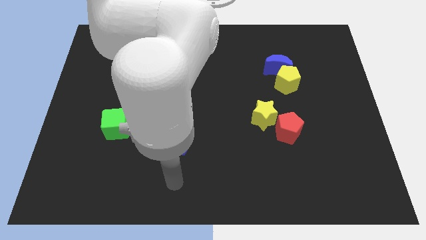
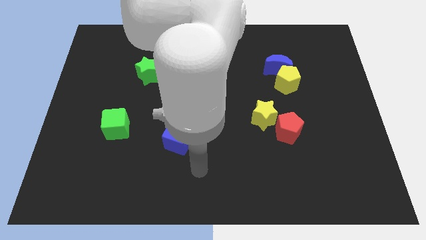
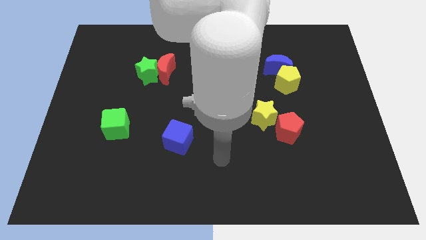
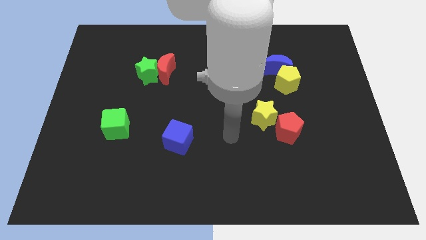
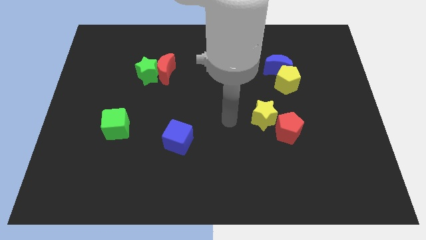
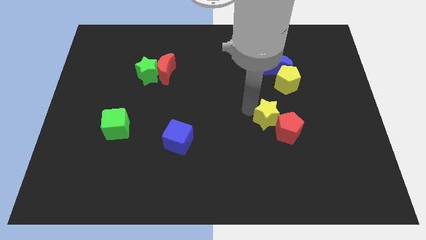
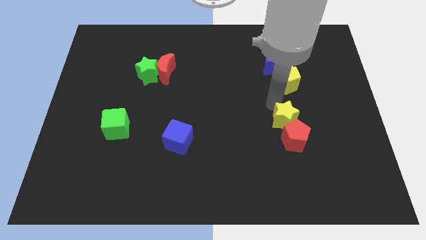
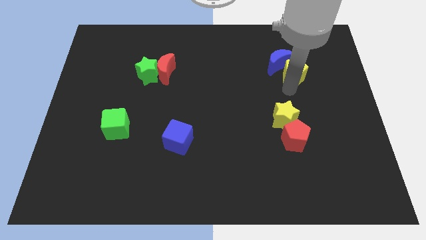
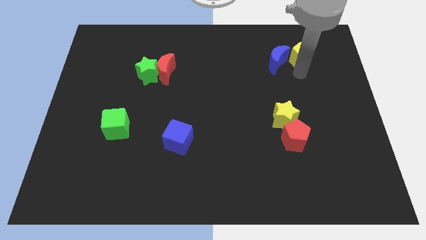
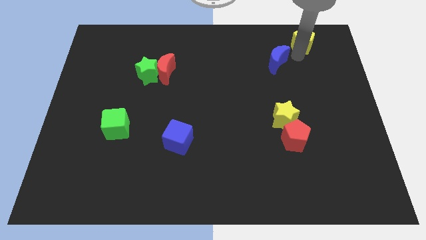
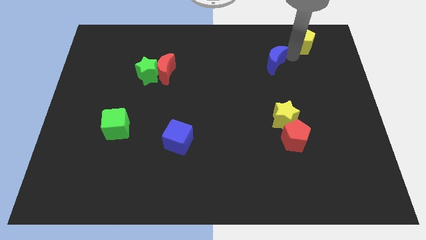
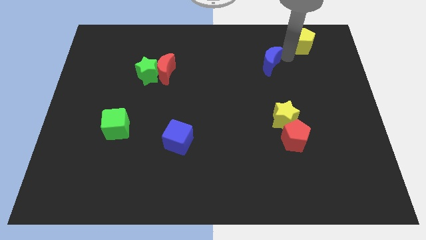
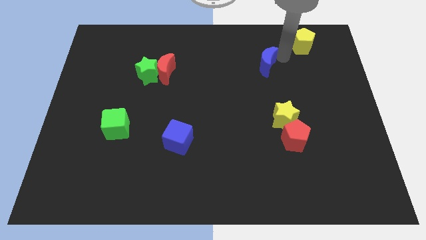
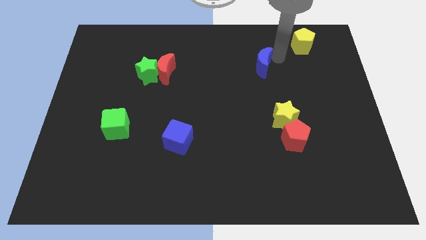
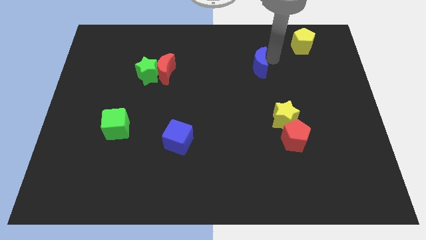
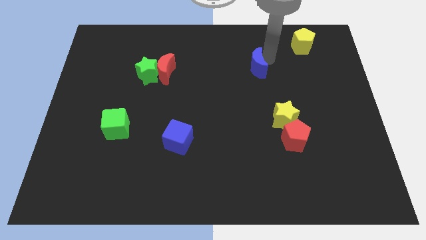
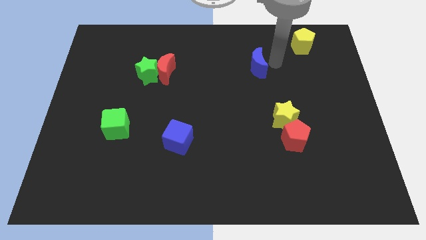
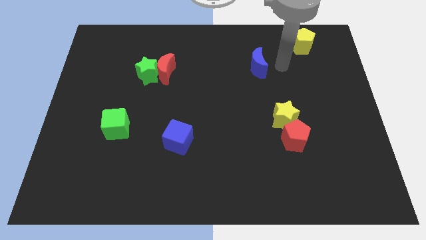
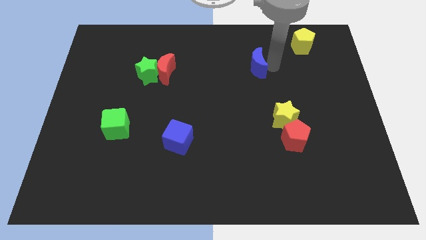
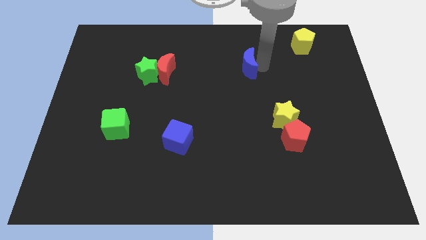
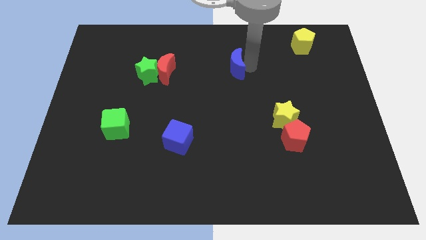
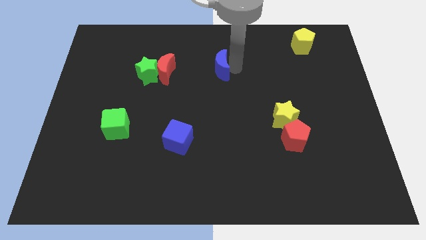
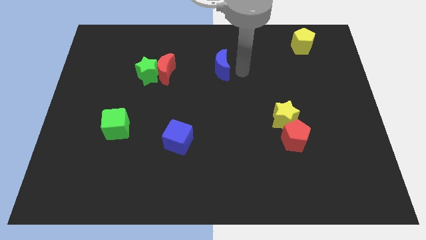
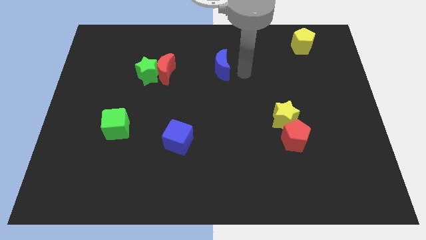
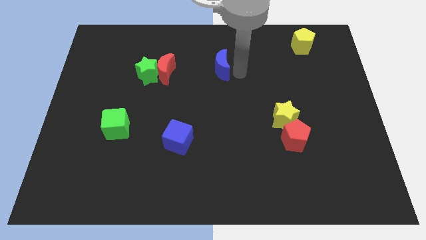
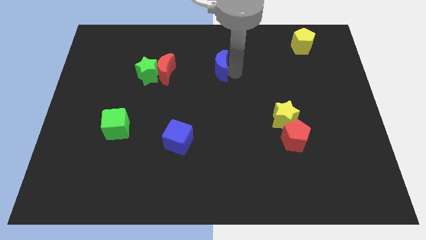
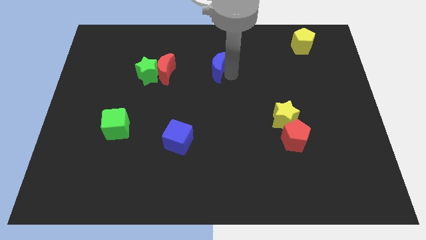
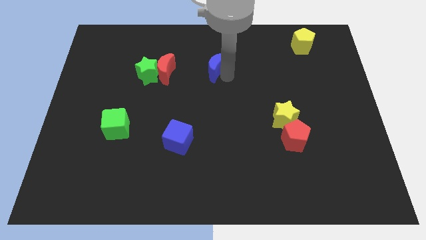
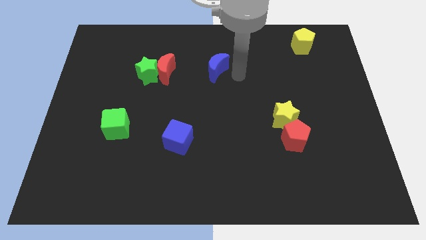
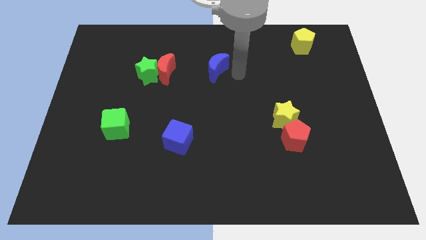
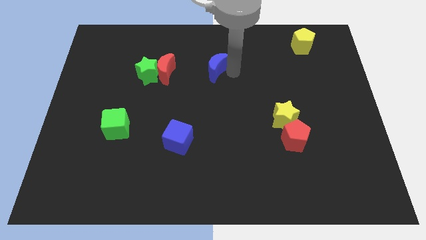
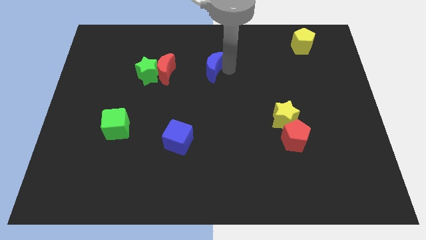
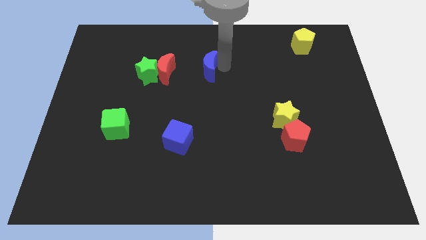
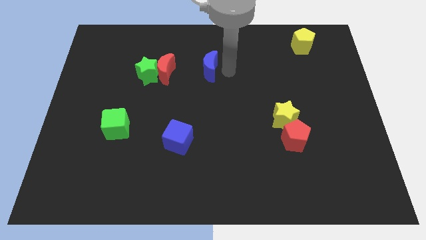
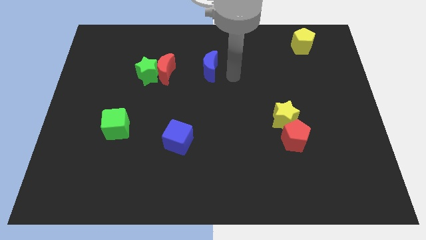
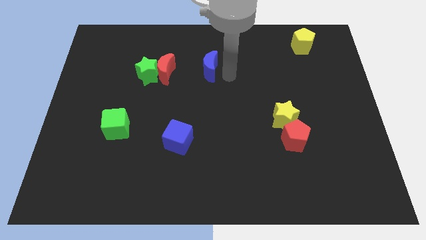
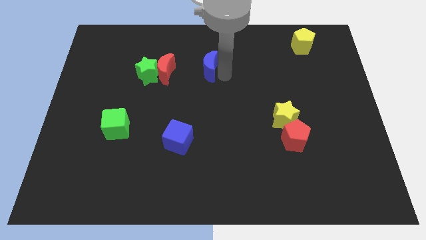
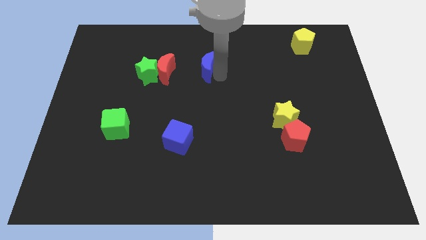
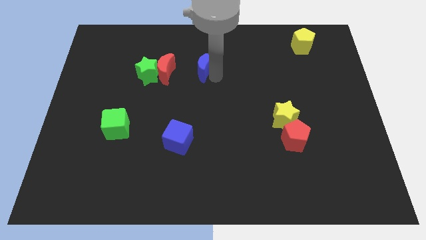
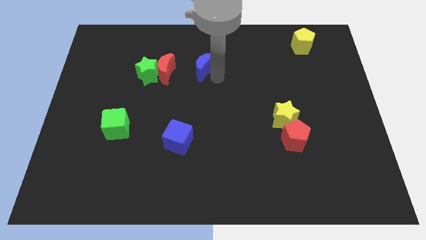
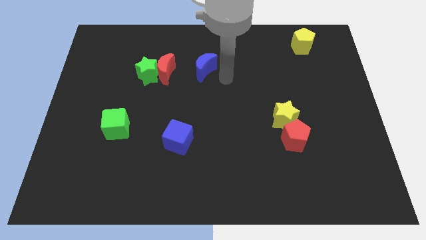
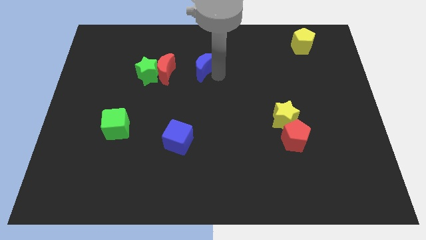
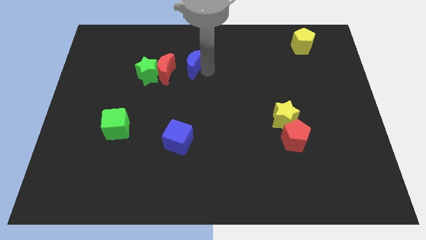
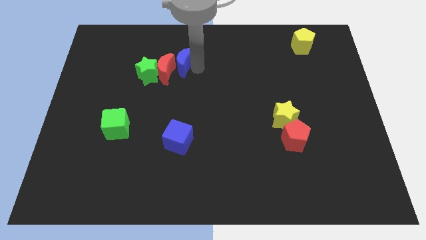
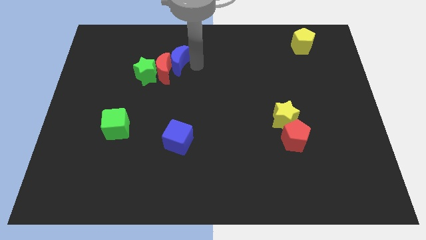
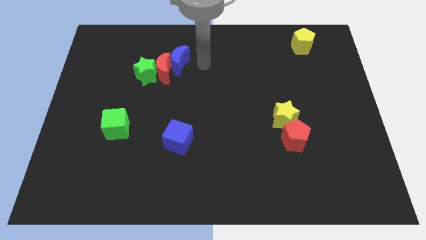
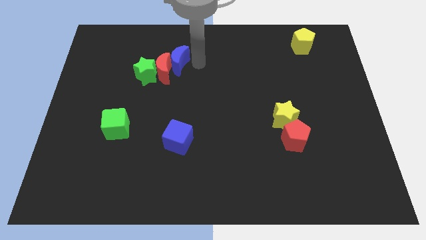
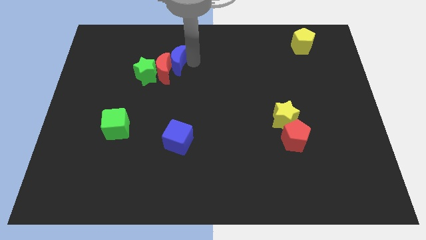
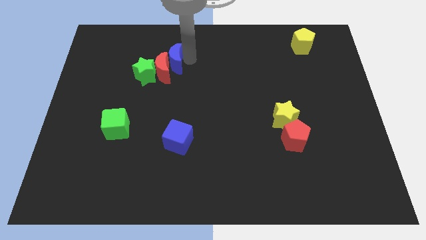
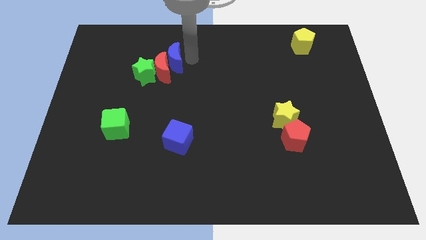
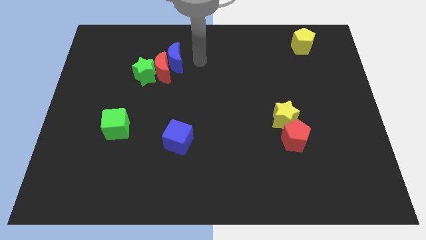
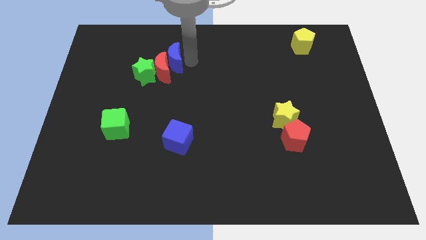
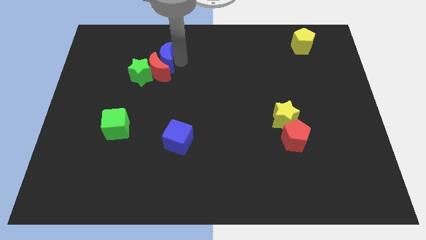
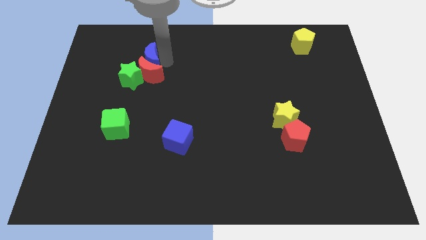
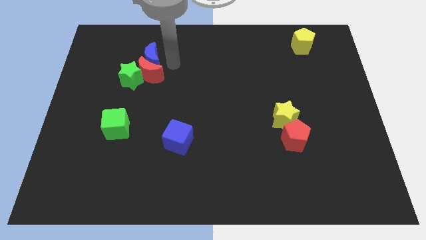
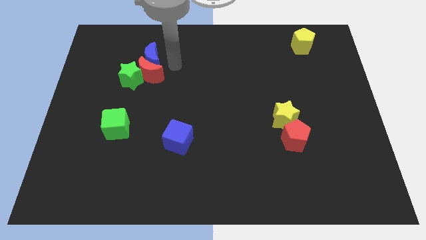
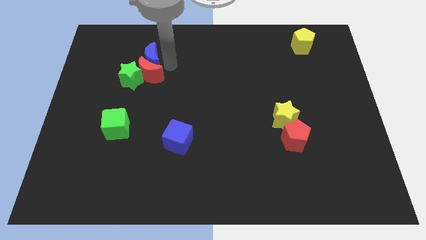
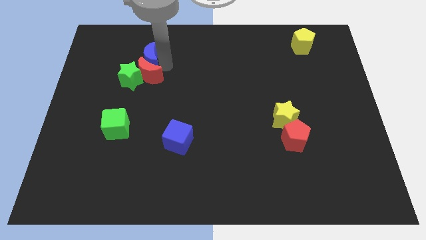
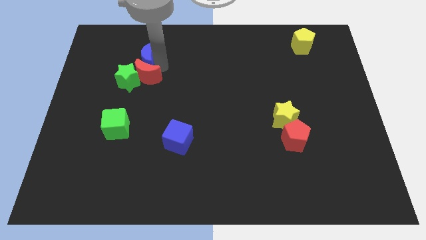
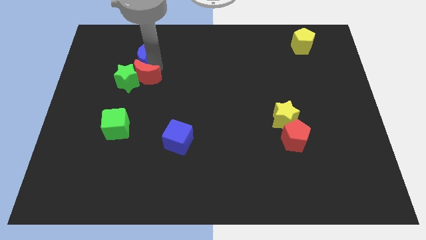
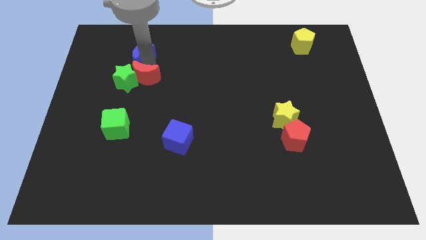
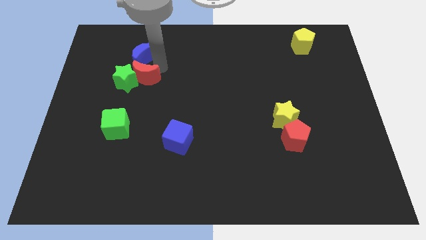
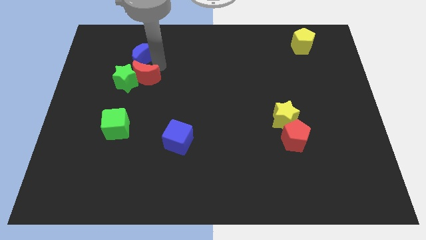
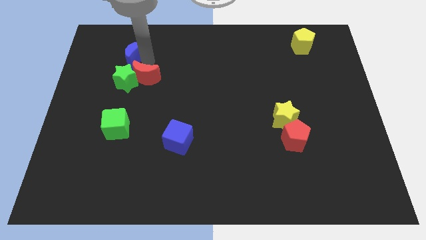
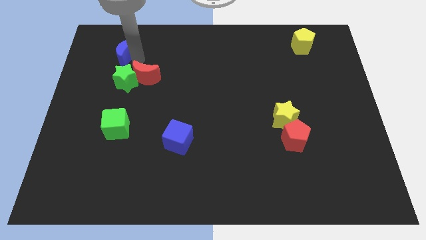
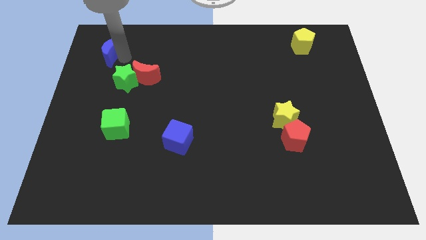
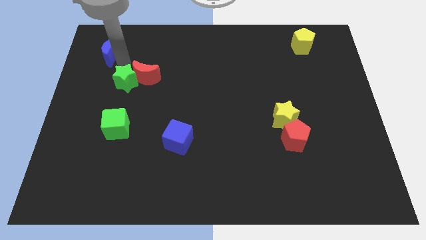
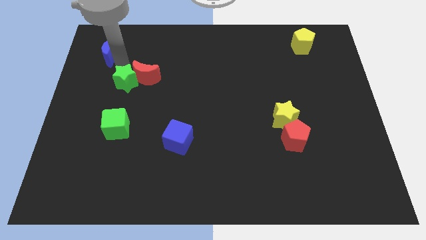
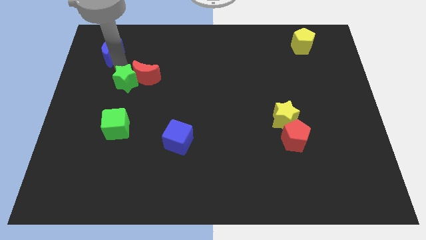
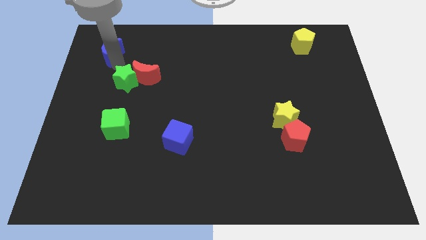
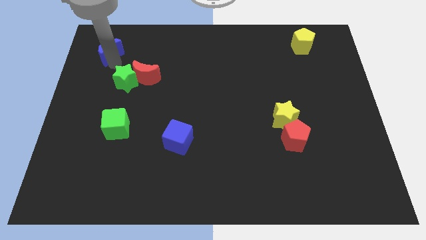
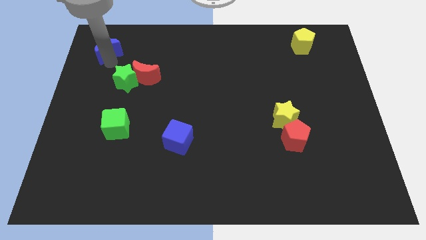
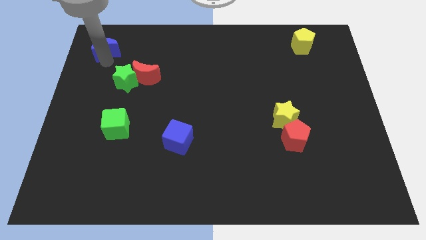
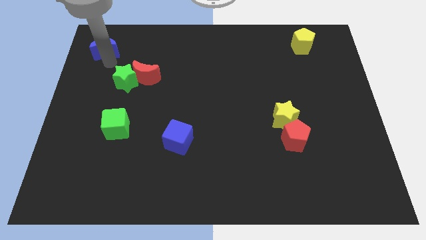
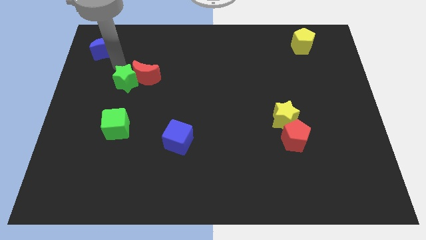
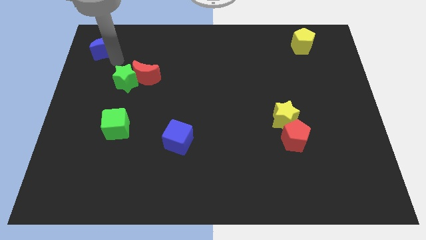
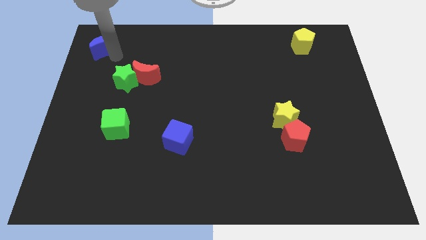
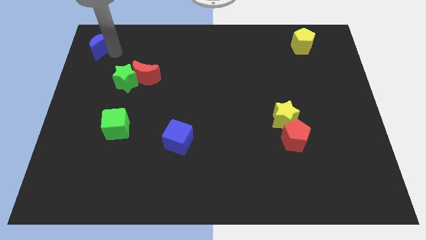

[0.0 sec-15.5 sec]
slide the blue moon to the top left
